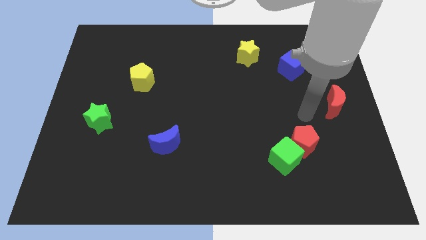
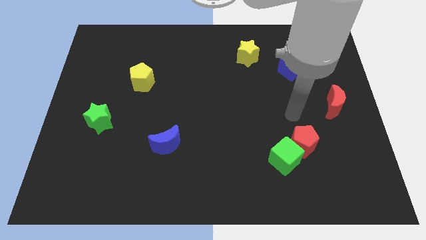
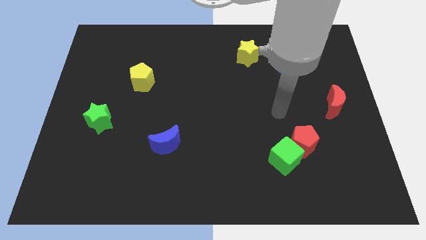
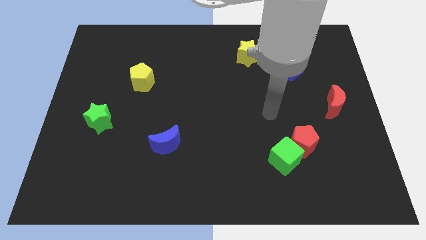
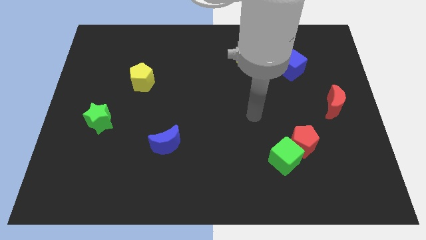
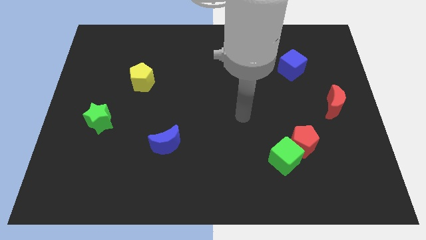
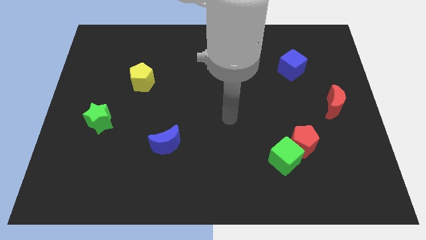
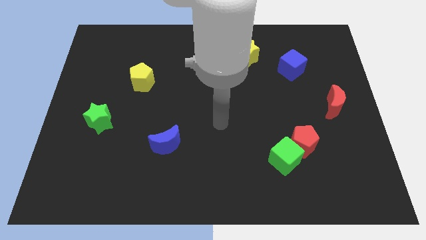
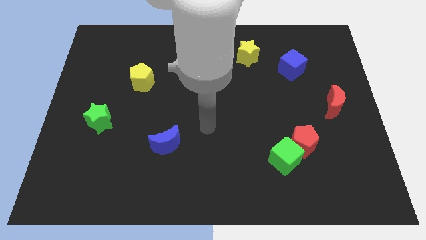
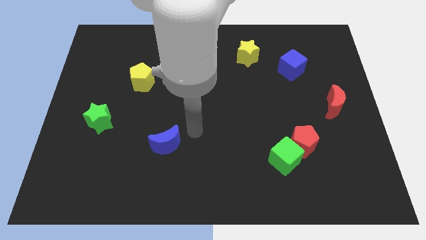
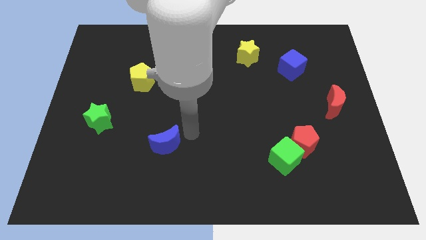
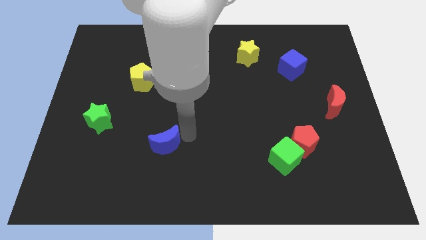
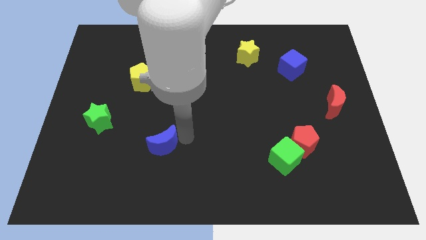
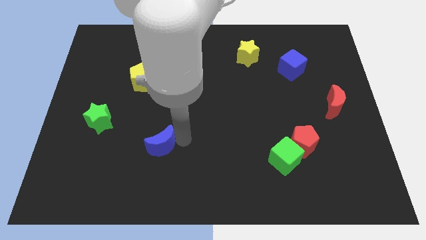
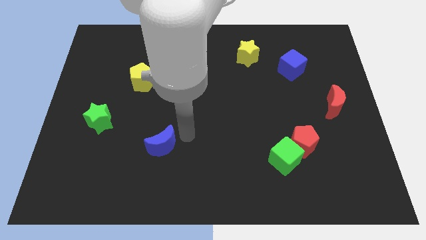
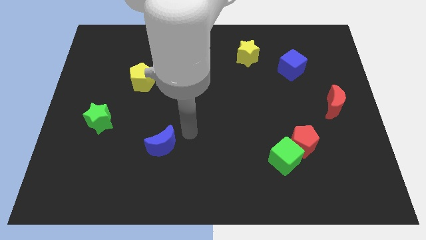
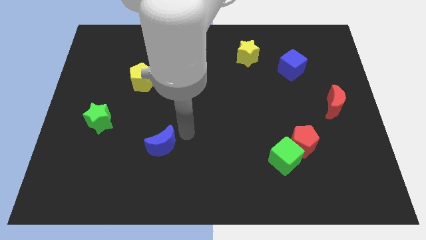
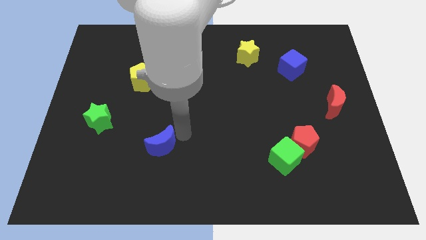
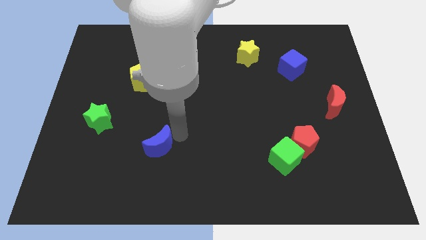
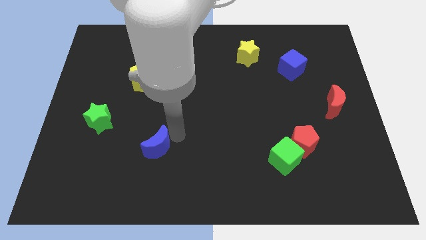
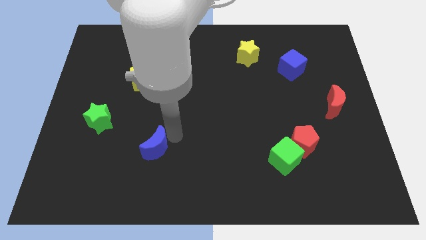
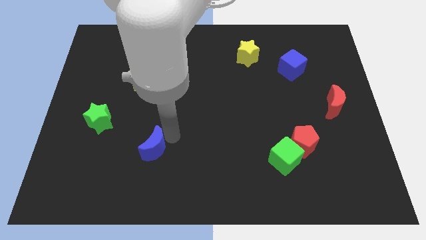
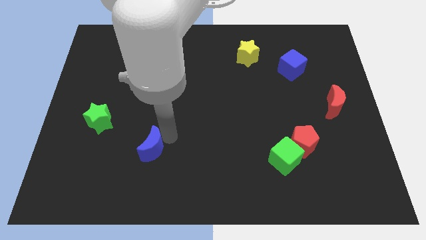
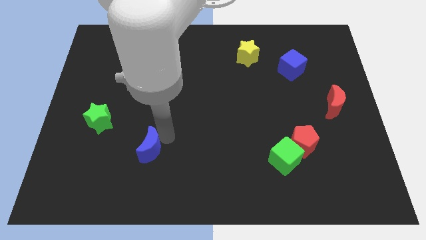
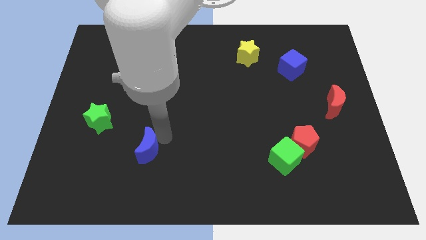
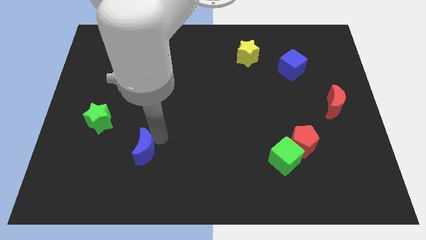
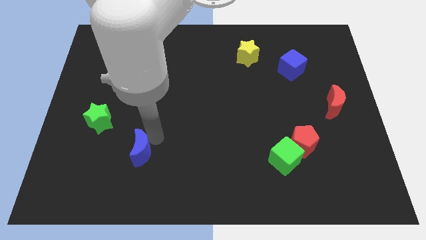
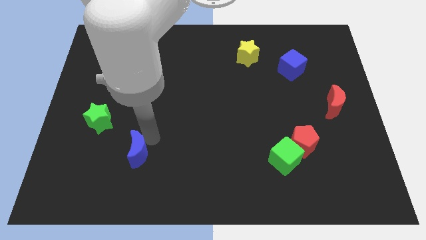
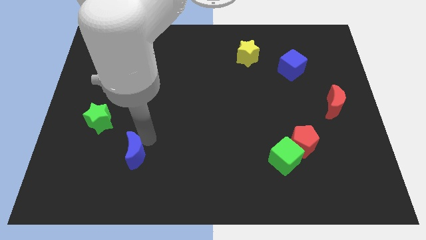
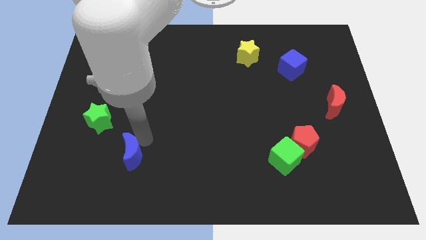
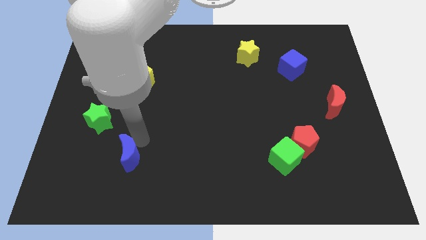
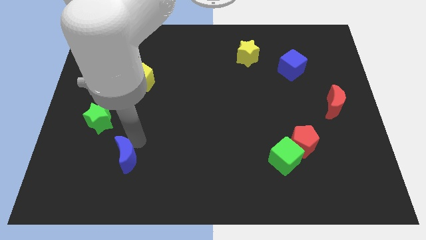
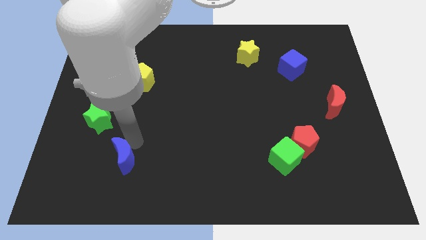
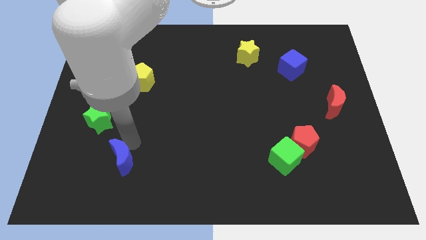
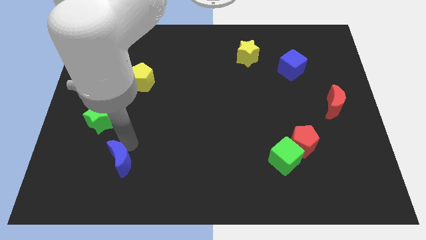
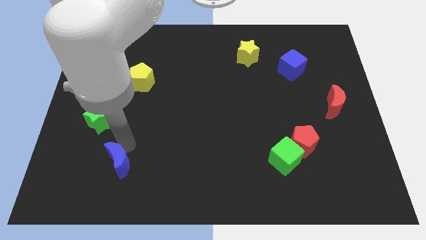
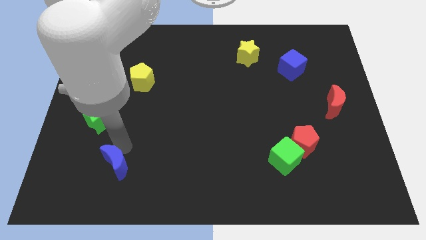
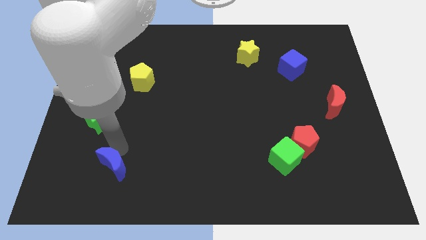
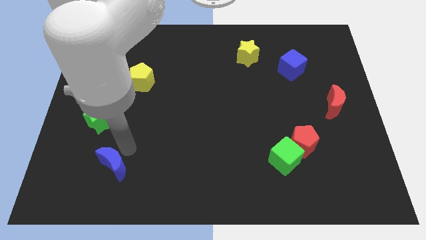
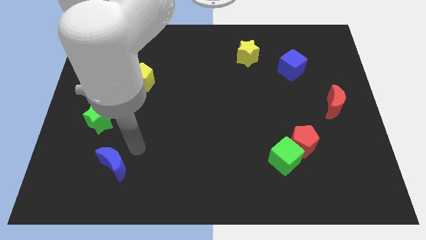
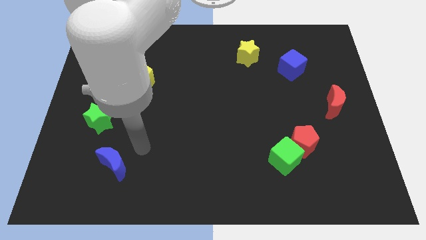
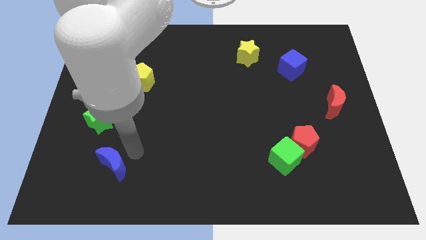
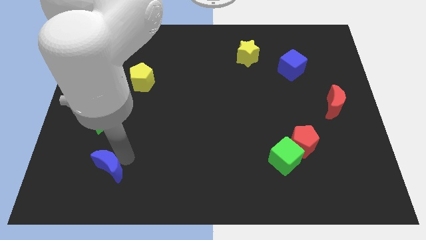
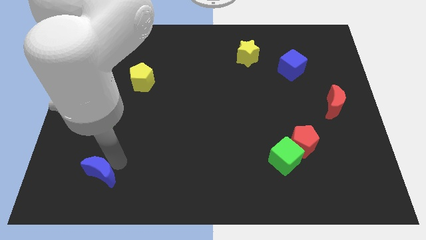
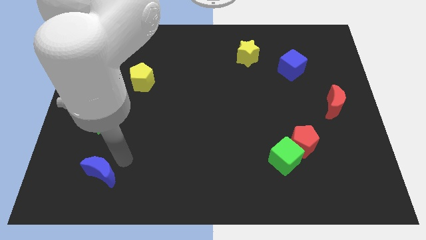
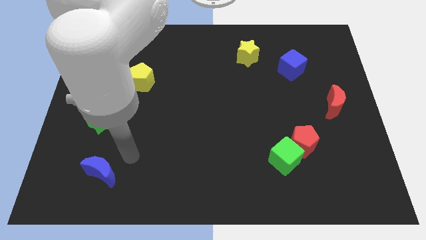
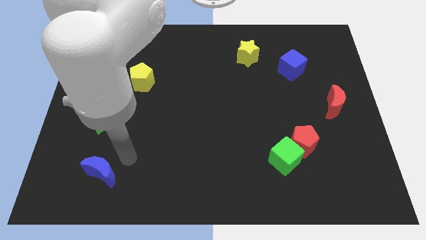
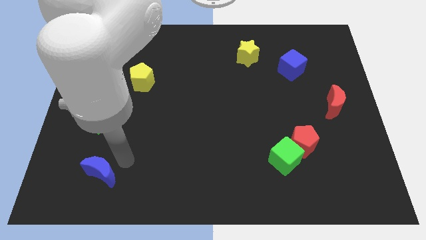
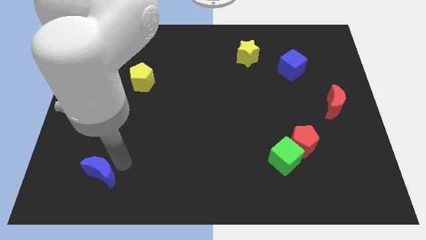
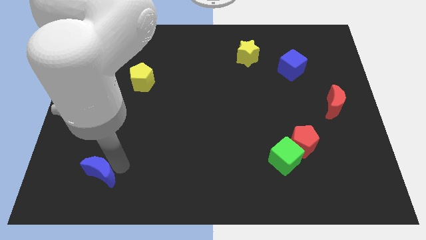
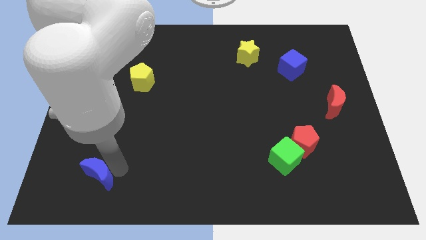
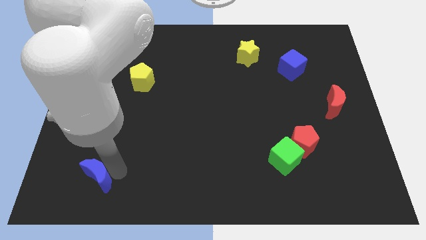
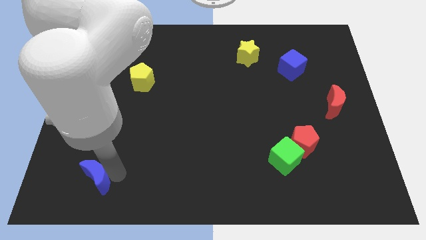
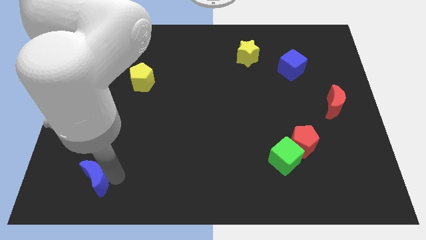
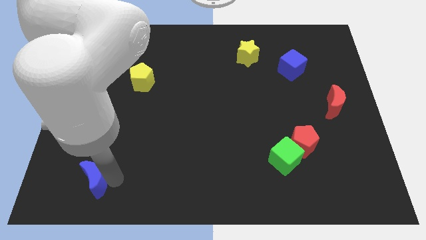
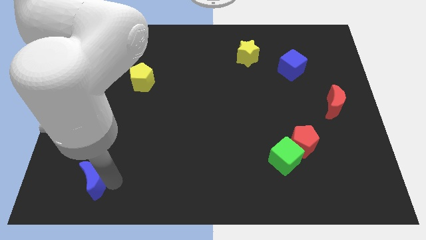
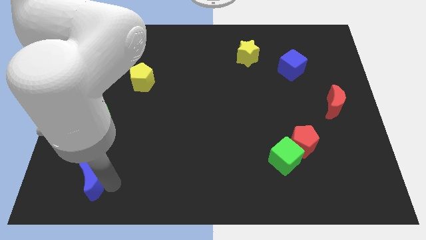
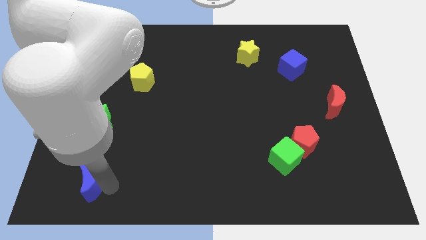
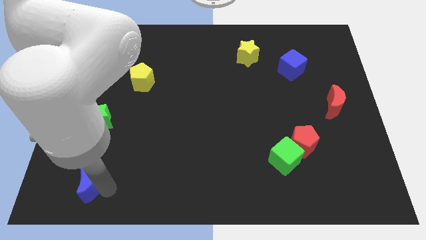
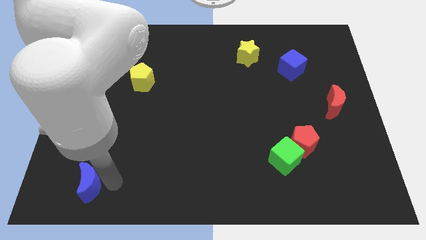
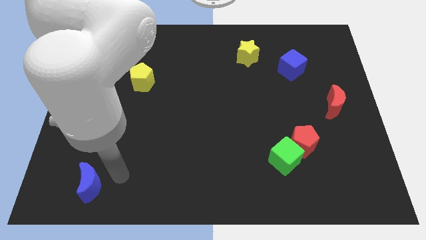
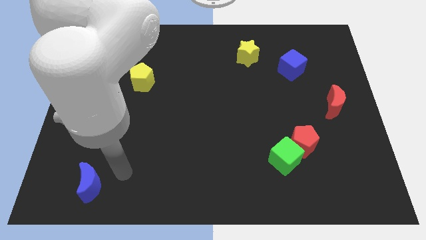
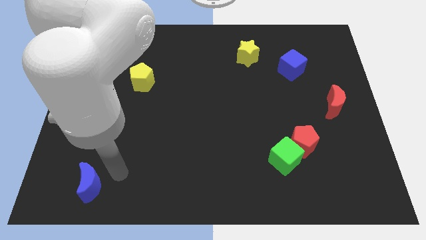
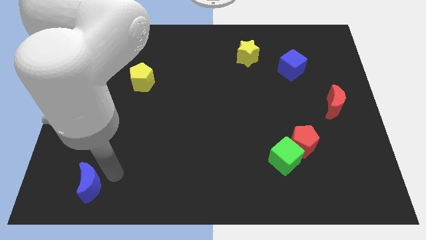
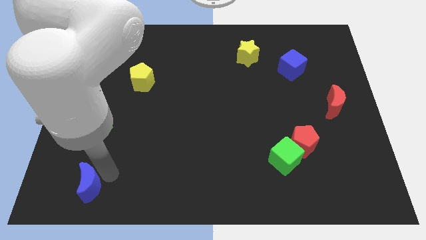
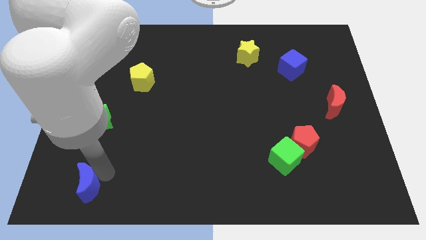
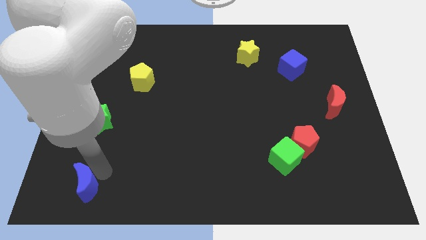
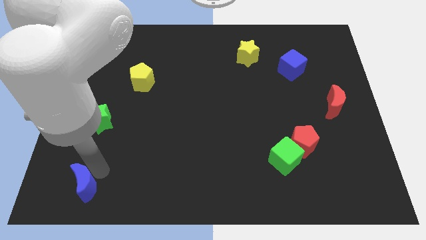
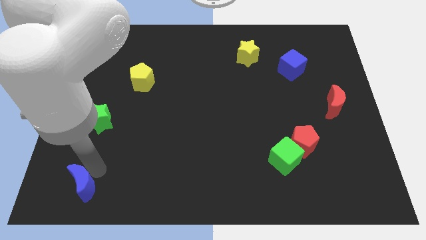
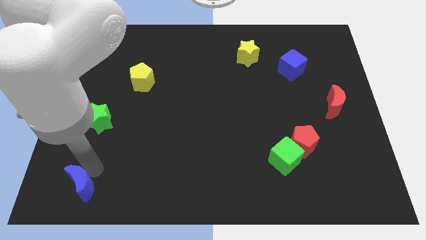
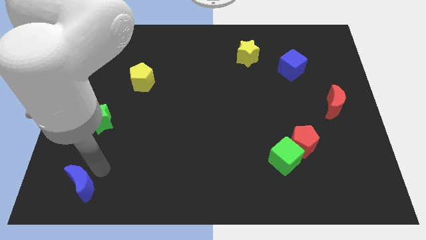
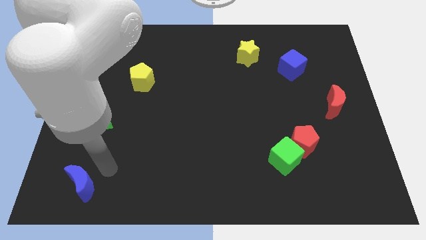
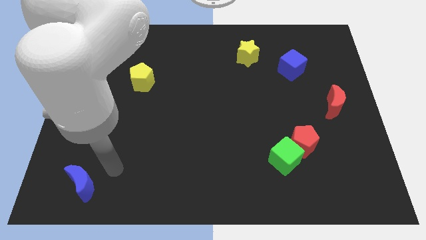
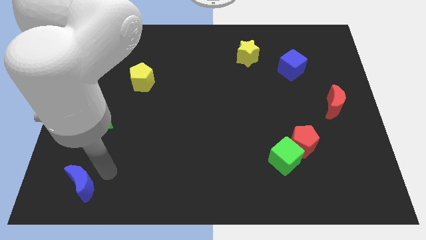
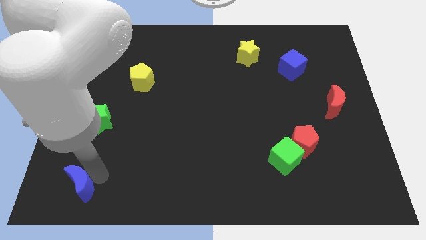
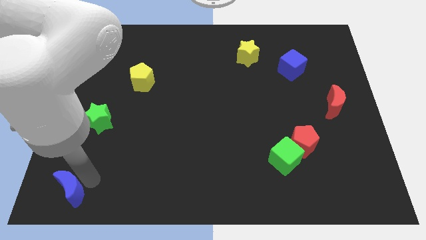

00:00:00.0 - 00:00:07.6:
move the blue moon to the bottom left of the board
